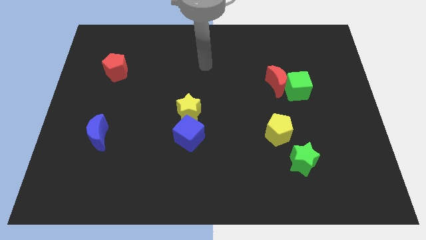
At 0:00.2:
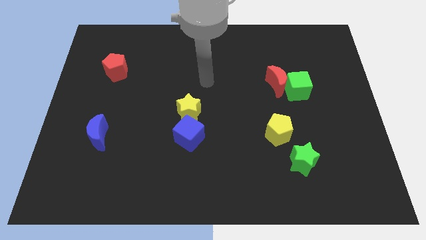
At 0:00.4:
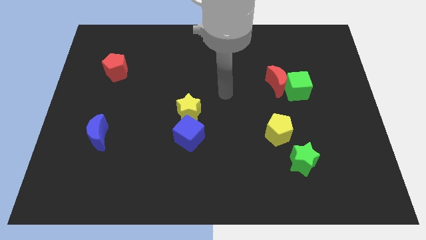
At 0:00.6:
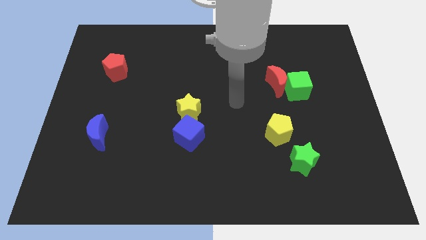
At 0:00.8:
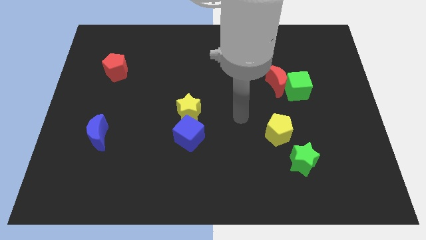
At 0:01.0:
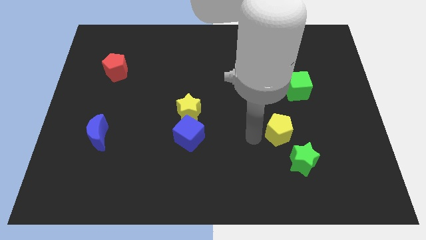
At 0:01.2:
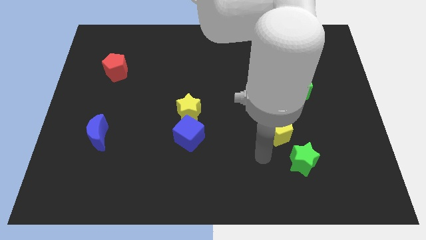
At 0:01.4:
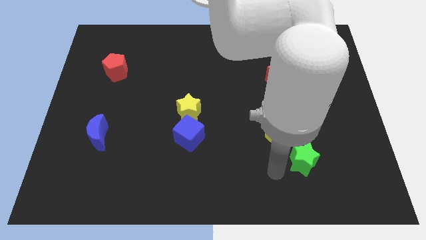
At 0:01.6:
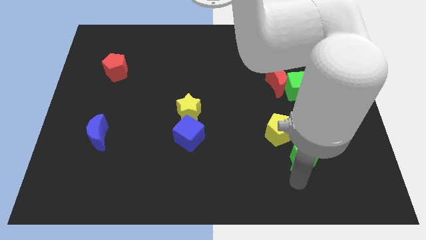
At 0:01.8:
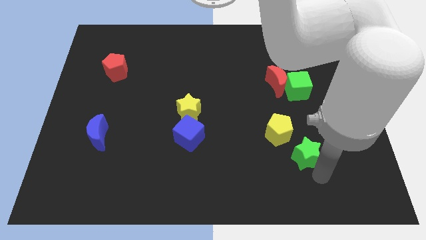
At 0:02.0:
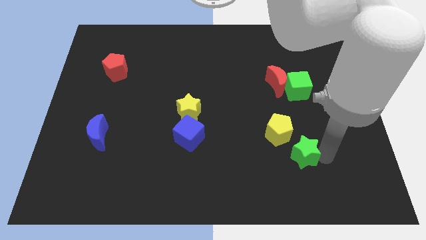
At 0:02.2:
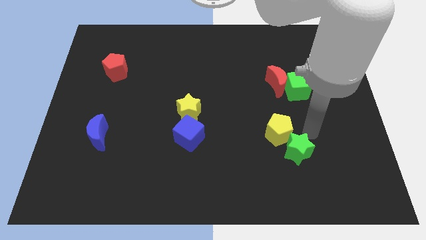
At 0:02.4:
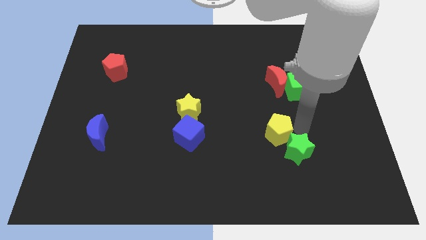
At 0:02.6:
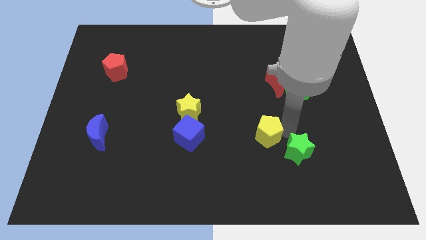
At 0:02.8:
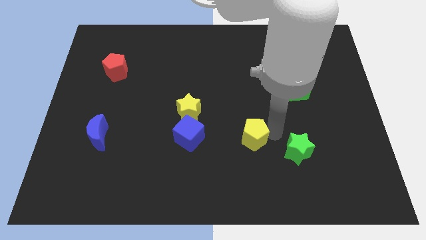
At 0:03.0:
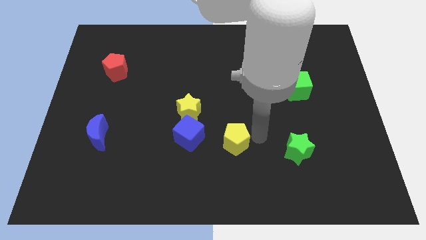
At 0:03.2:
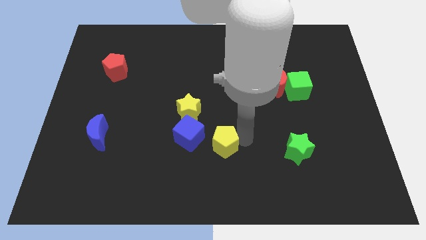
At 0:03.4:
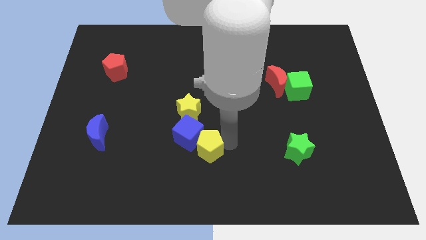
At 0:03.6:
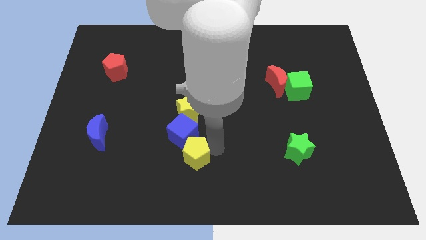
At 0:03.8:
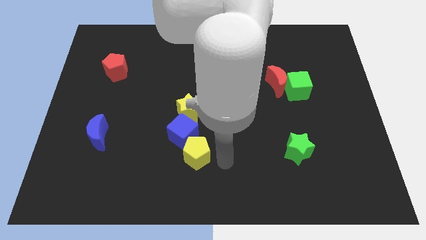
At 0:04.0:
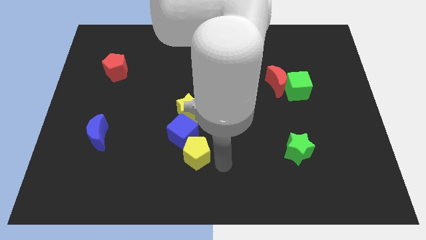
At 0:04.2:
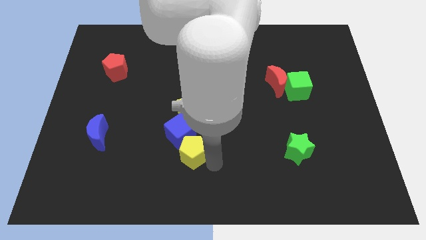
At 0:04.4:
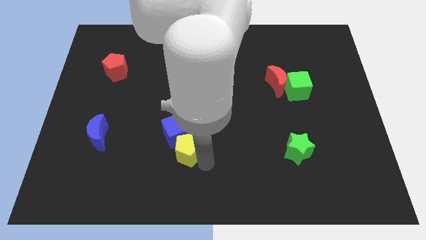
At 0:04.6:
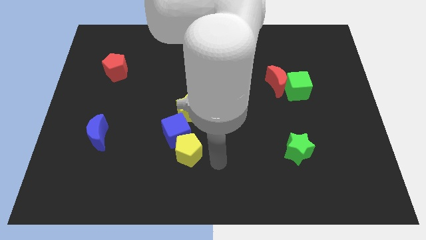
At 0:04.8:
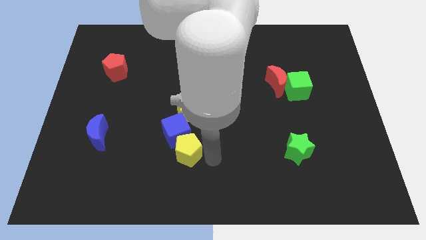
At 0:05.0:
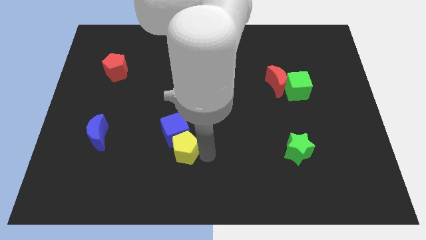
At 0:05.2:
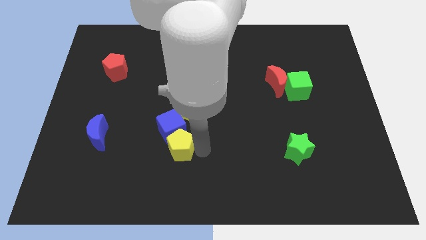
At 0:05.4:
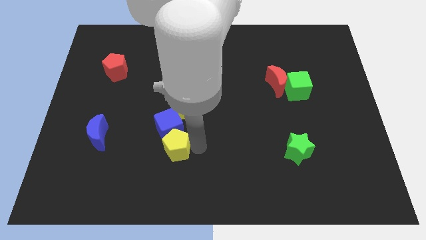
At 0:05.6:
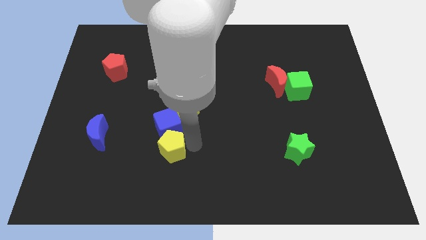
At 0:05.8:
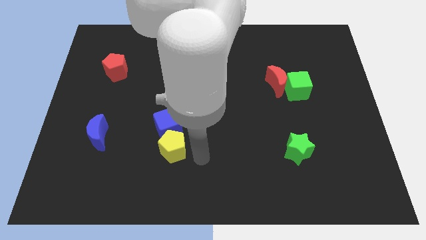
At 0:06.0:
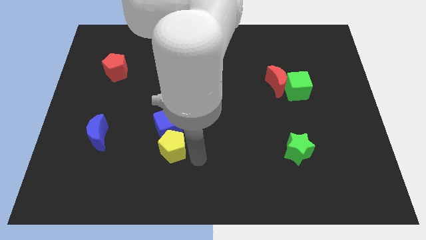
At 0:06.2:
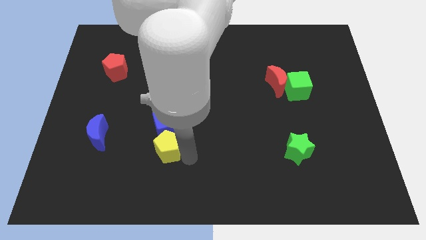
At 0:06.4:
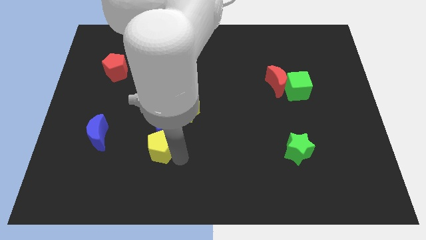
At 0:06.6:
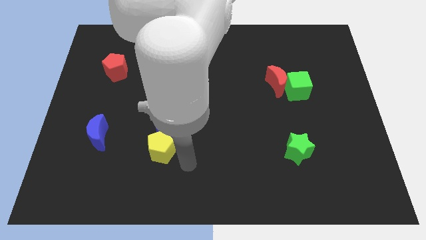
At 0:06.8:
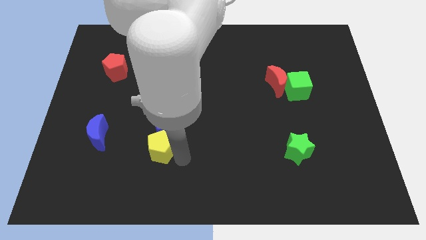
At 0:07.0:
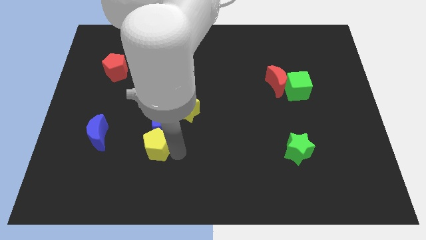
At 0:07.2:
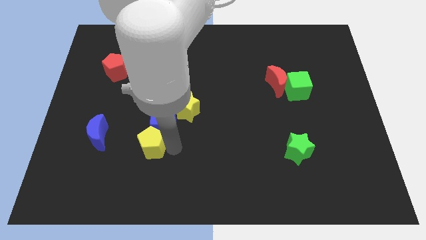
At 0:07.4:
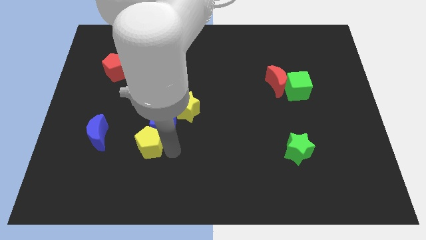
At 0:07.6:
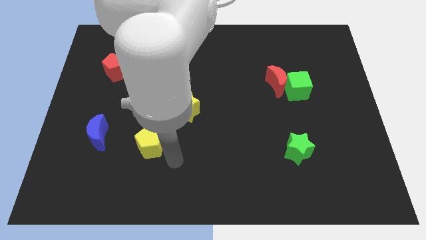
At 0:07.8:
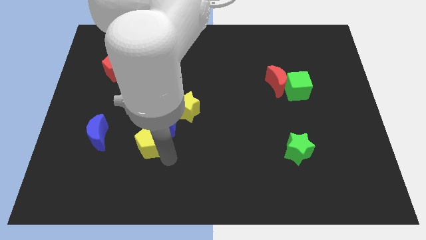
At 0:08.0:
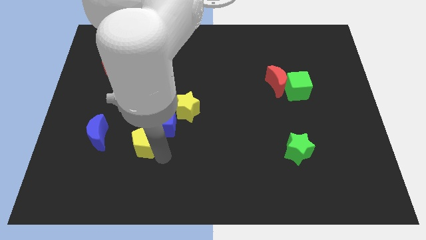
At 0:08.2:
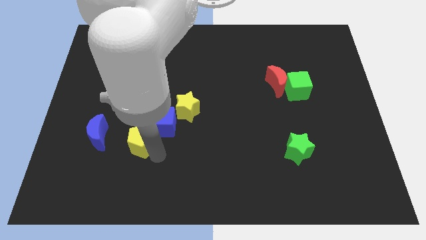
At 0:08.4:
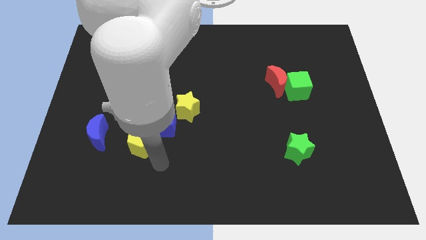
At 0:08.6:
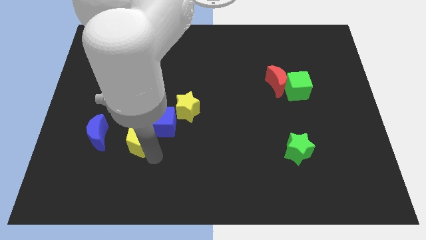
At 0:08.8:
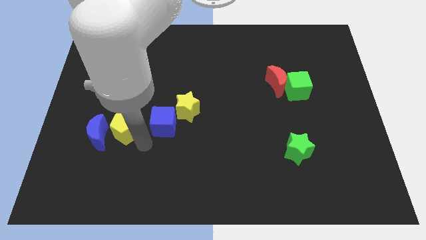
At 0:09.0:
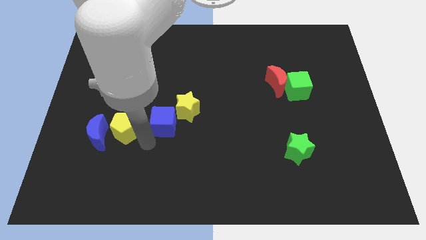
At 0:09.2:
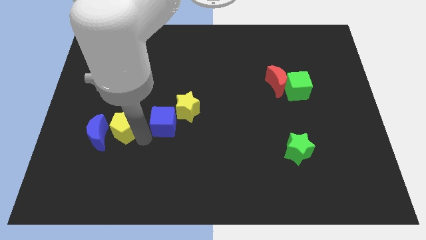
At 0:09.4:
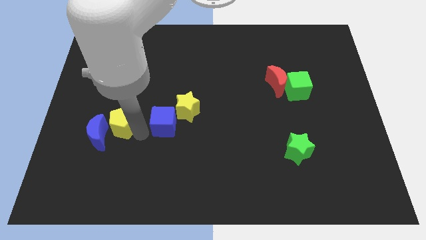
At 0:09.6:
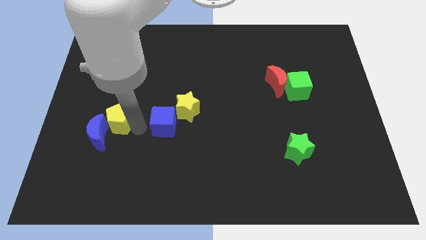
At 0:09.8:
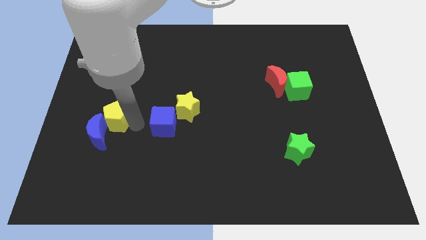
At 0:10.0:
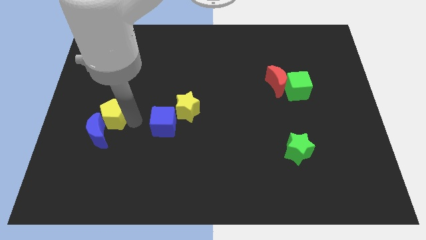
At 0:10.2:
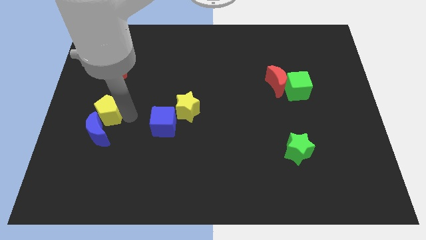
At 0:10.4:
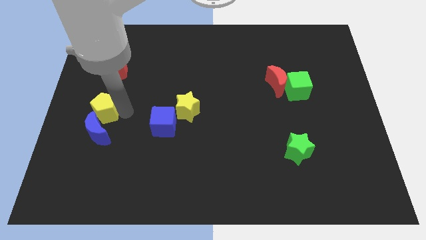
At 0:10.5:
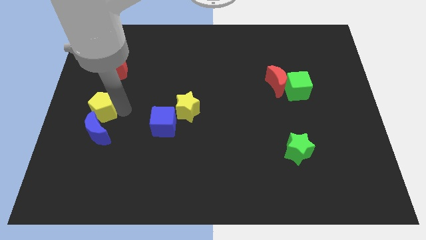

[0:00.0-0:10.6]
push the yellow pentagon to the left side of the board
